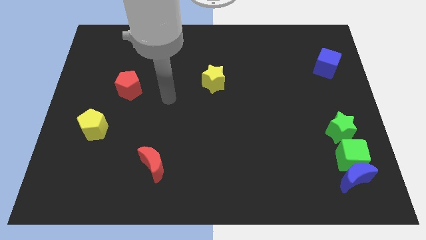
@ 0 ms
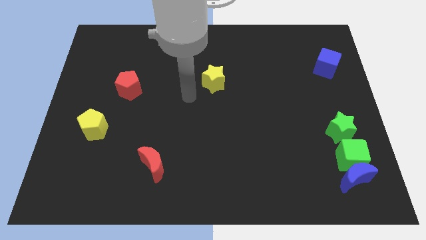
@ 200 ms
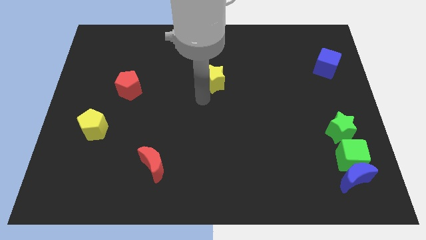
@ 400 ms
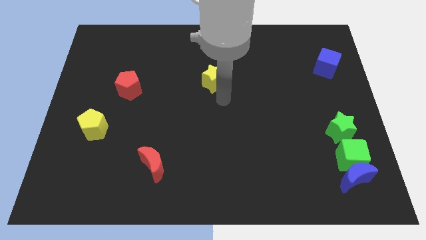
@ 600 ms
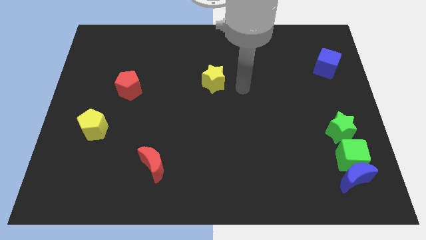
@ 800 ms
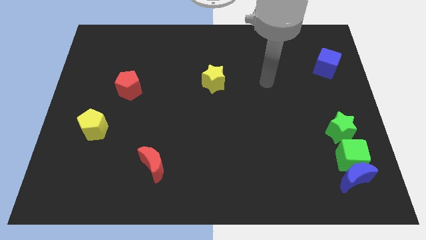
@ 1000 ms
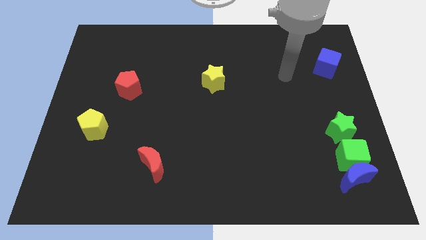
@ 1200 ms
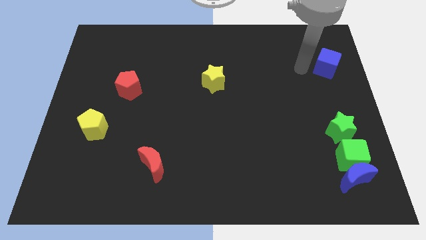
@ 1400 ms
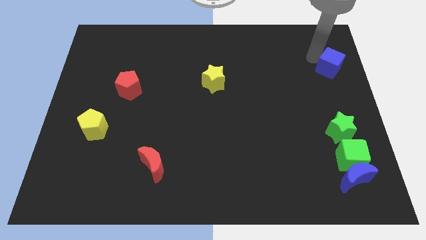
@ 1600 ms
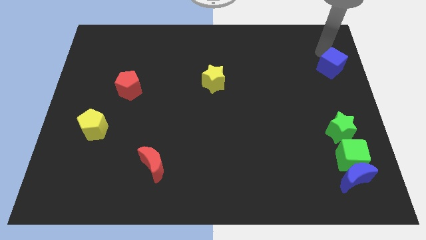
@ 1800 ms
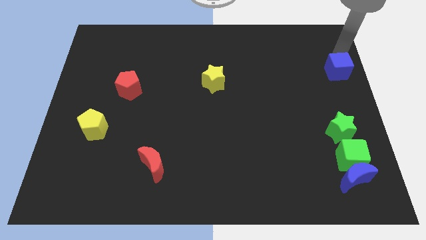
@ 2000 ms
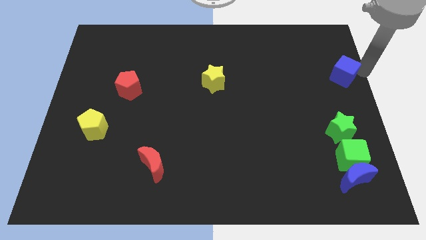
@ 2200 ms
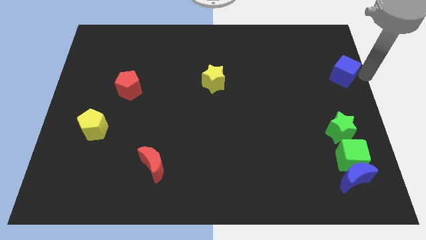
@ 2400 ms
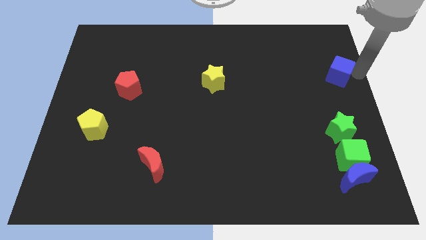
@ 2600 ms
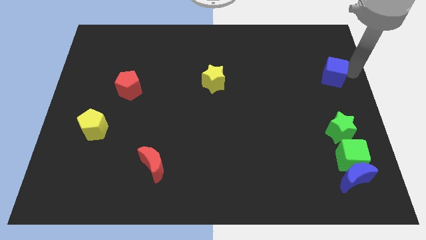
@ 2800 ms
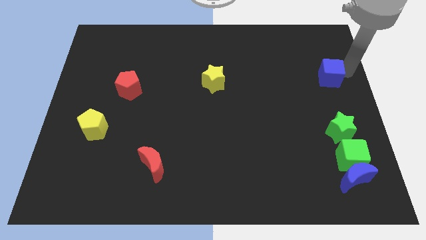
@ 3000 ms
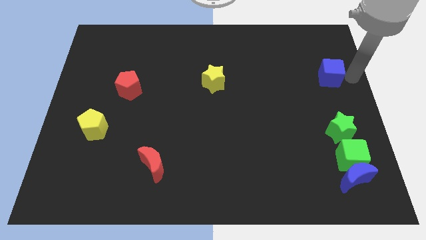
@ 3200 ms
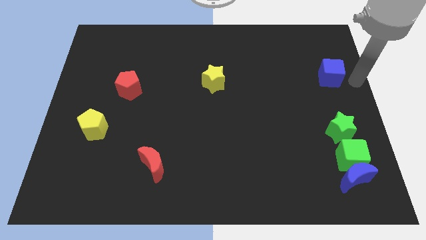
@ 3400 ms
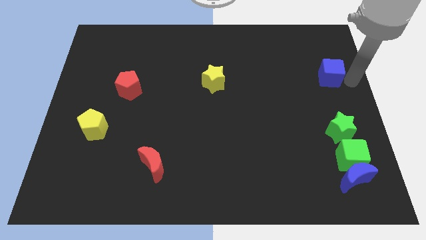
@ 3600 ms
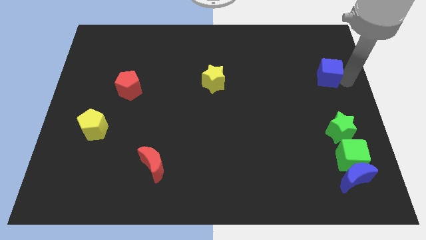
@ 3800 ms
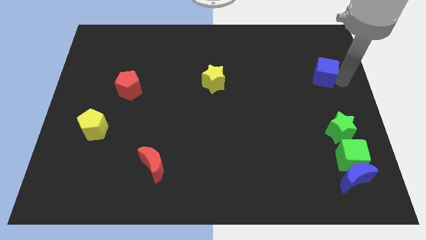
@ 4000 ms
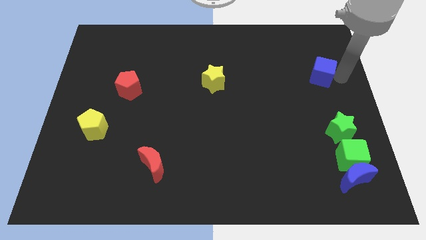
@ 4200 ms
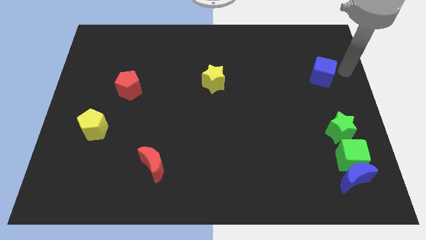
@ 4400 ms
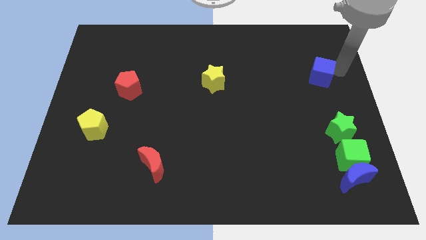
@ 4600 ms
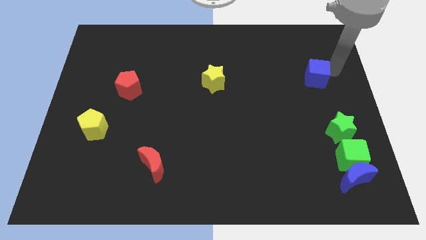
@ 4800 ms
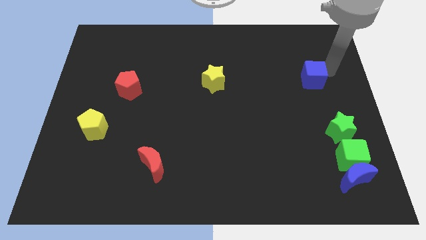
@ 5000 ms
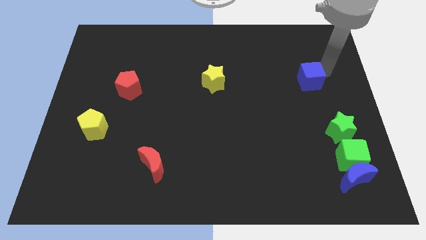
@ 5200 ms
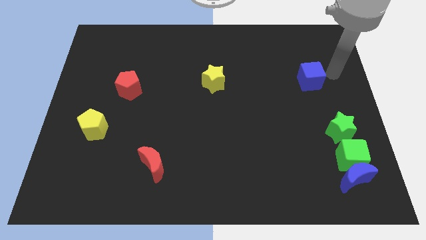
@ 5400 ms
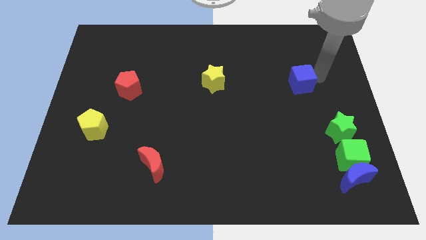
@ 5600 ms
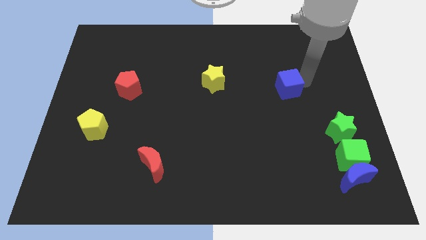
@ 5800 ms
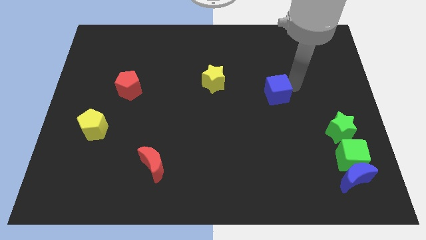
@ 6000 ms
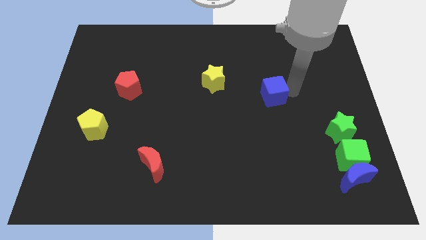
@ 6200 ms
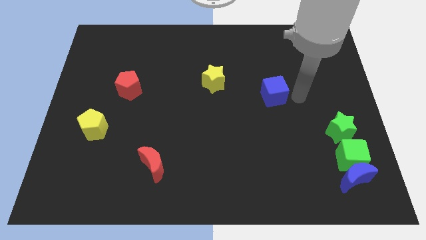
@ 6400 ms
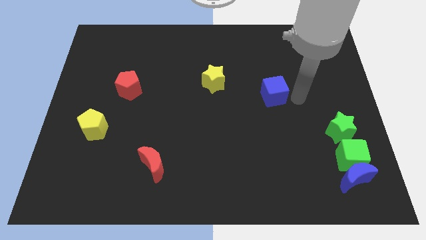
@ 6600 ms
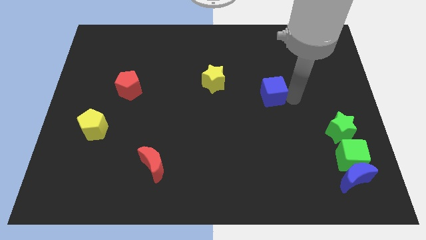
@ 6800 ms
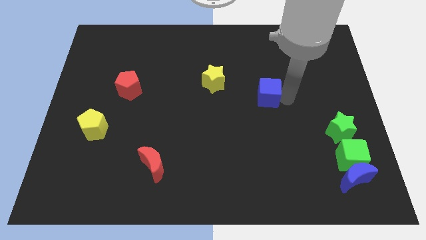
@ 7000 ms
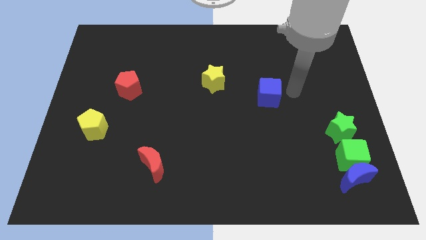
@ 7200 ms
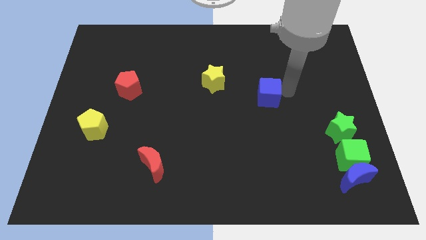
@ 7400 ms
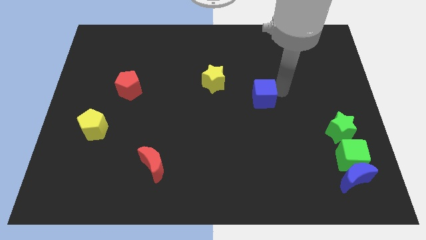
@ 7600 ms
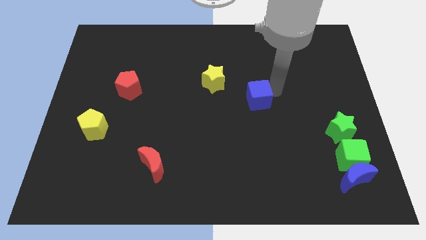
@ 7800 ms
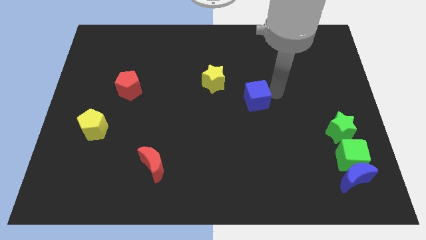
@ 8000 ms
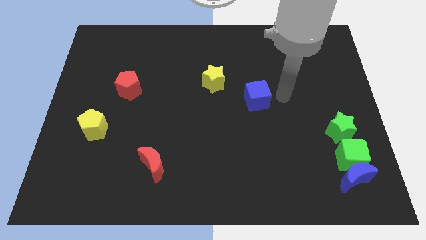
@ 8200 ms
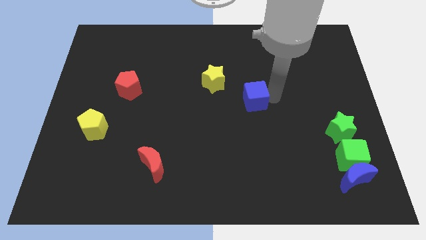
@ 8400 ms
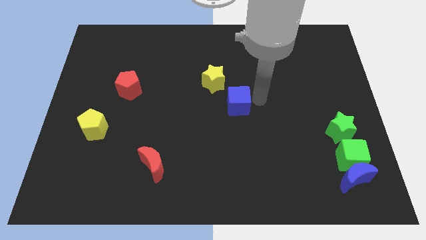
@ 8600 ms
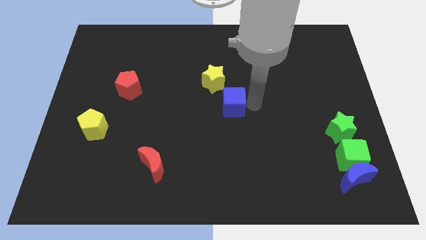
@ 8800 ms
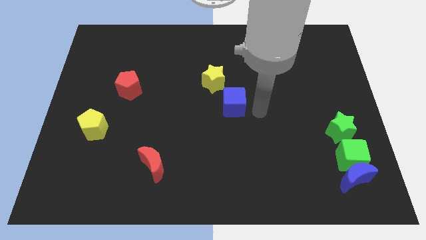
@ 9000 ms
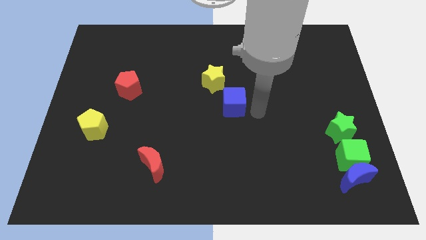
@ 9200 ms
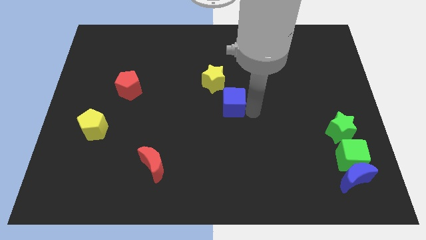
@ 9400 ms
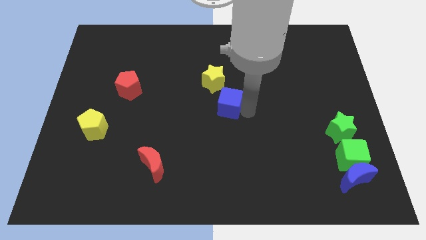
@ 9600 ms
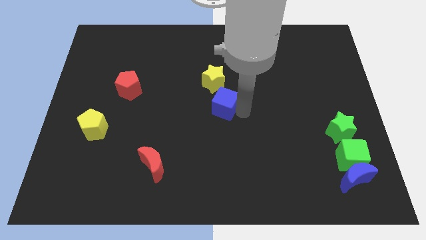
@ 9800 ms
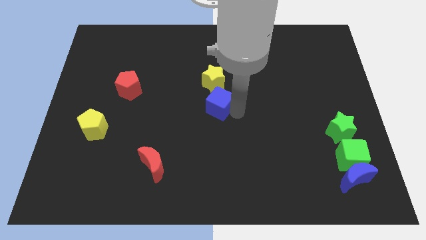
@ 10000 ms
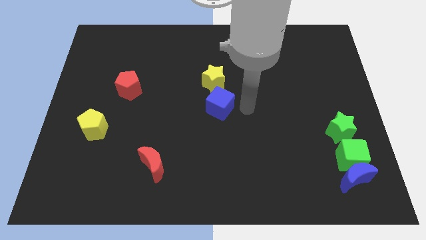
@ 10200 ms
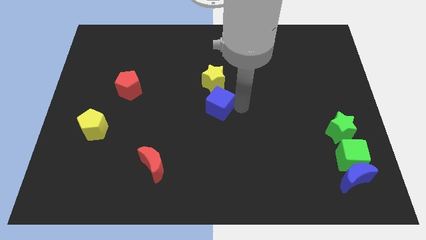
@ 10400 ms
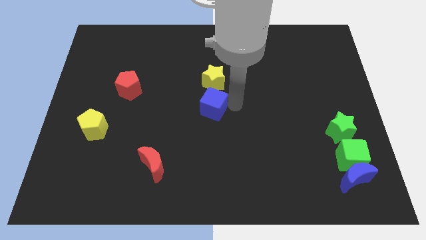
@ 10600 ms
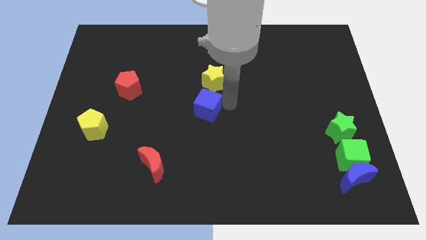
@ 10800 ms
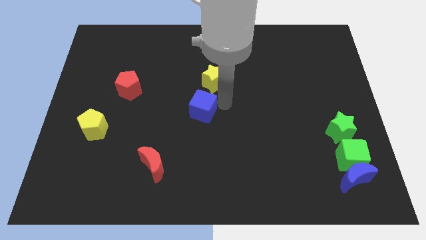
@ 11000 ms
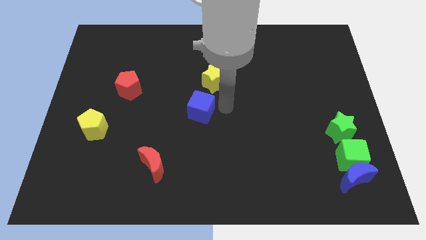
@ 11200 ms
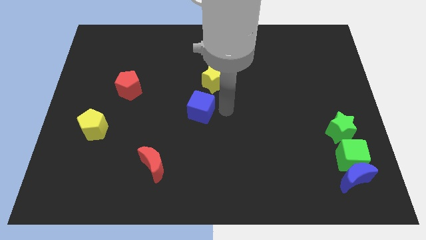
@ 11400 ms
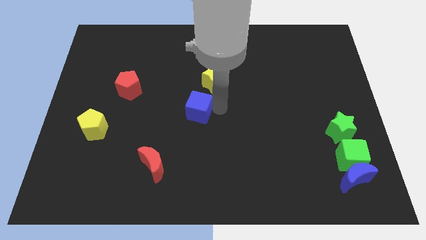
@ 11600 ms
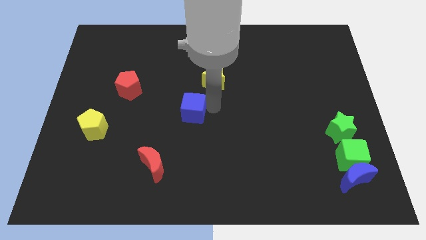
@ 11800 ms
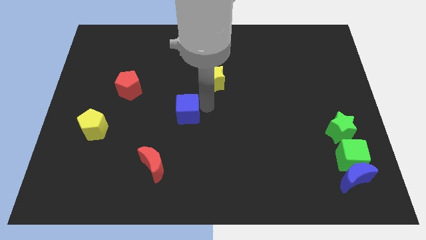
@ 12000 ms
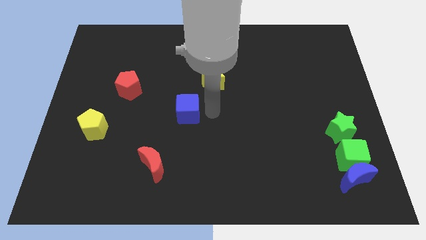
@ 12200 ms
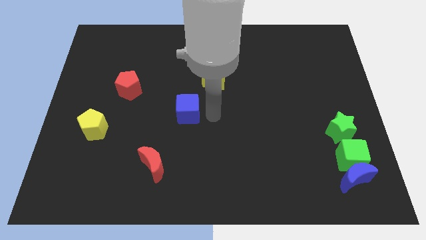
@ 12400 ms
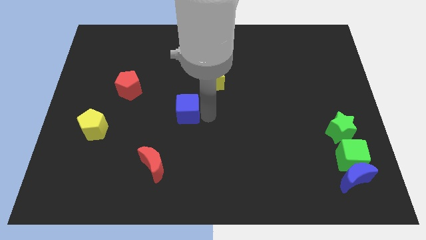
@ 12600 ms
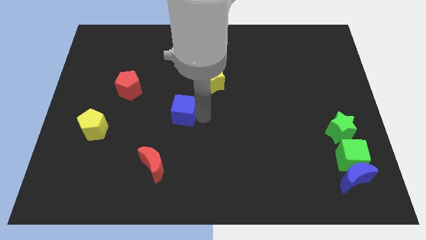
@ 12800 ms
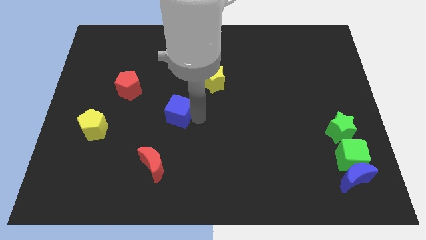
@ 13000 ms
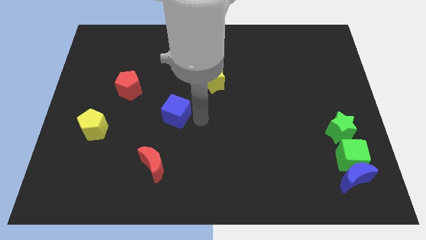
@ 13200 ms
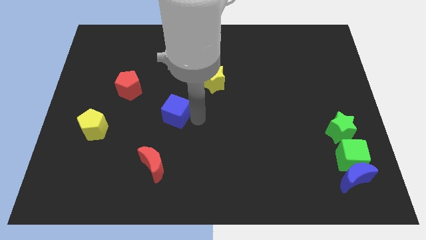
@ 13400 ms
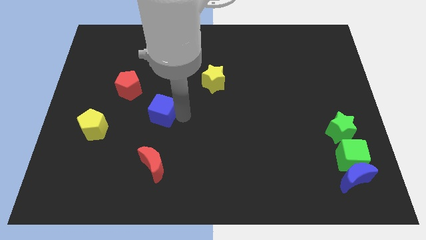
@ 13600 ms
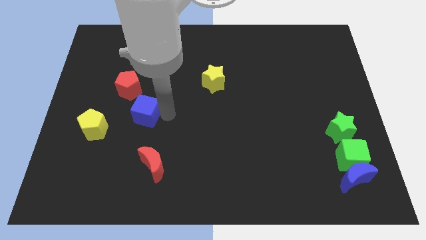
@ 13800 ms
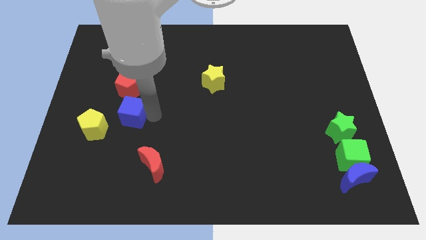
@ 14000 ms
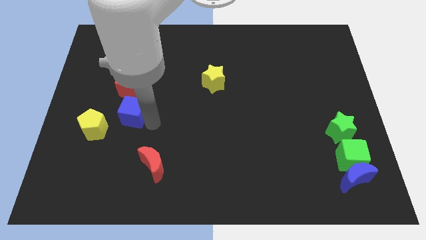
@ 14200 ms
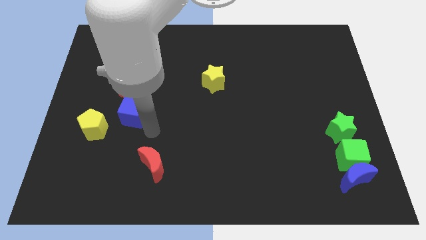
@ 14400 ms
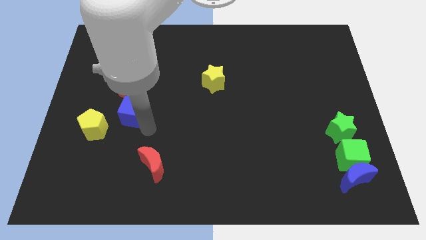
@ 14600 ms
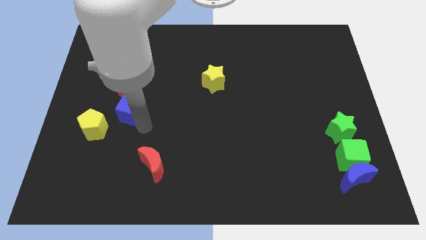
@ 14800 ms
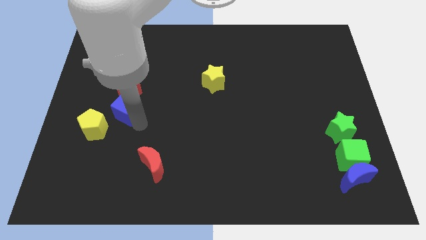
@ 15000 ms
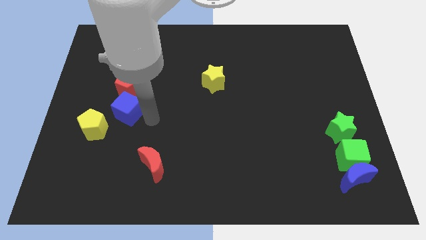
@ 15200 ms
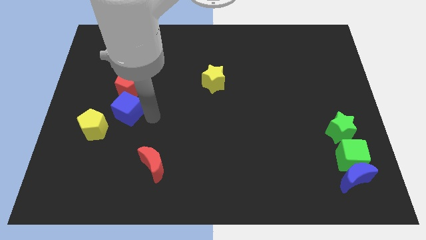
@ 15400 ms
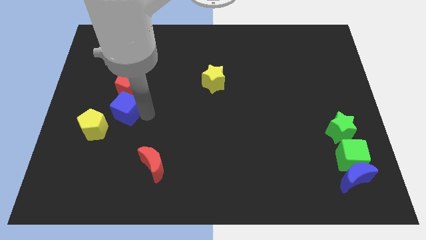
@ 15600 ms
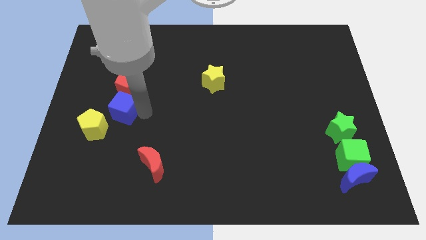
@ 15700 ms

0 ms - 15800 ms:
move the blue cube to the bottom left of the red pentagon
